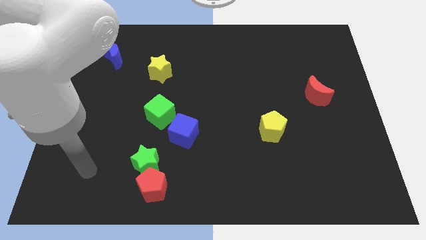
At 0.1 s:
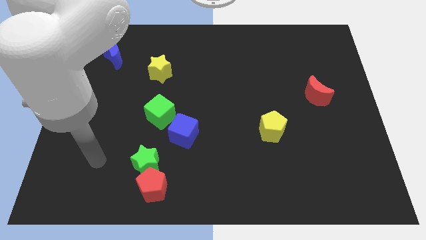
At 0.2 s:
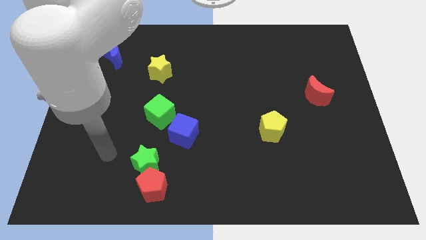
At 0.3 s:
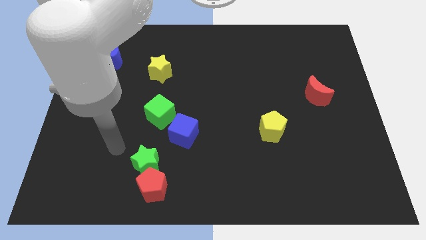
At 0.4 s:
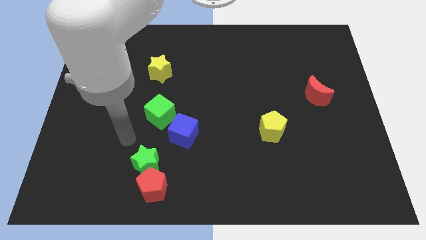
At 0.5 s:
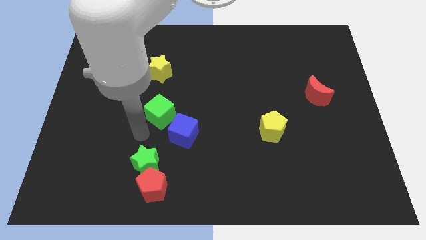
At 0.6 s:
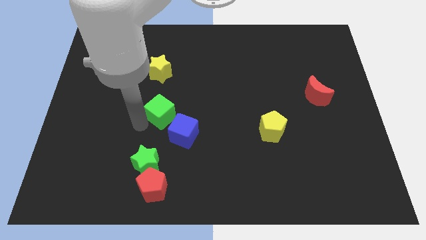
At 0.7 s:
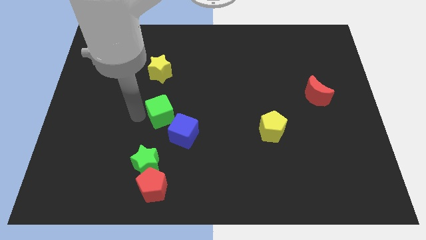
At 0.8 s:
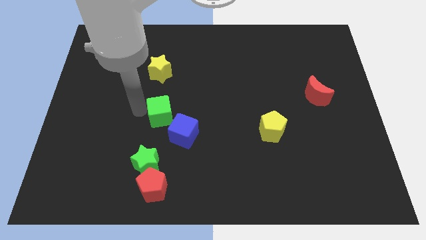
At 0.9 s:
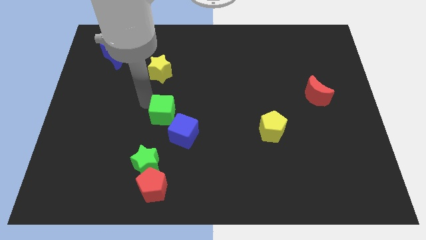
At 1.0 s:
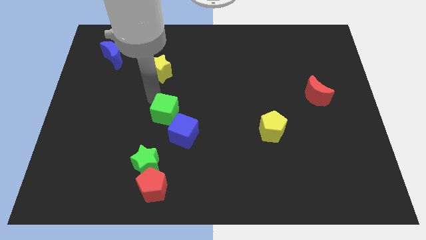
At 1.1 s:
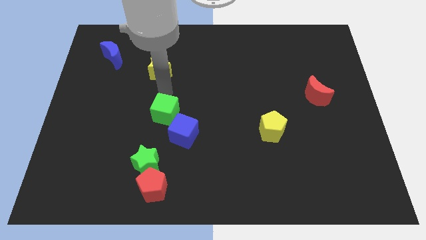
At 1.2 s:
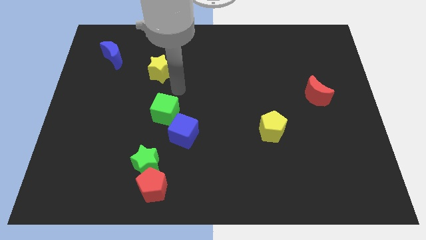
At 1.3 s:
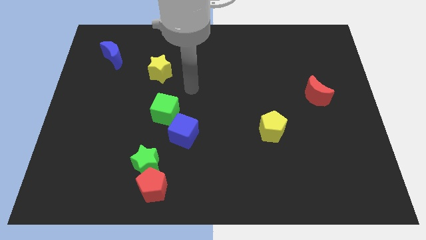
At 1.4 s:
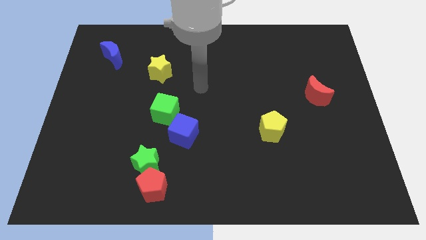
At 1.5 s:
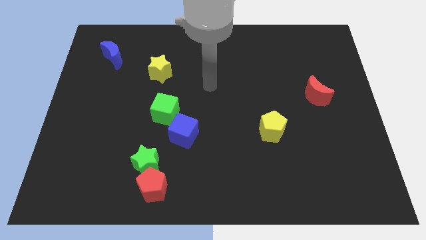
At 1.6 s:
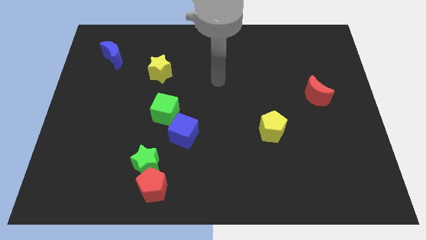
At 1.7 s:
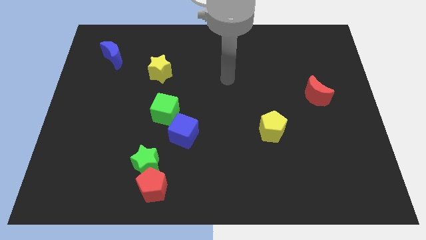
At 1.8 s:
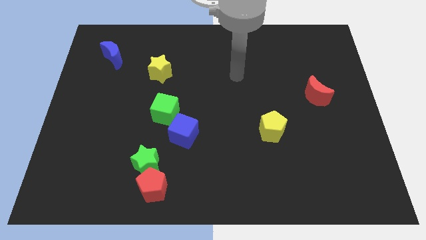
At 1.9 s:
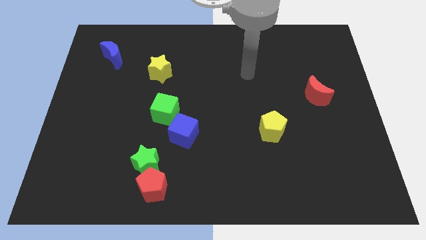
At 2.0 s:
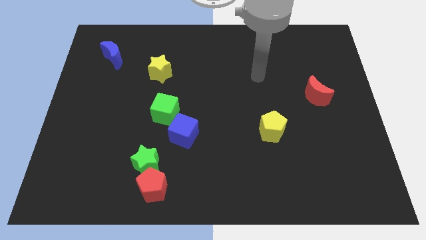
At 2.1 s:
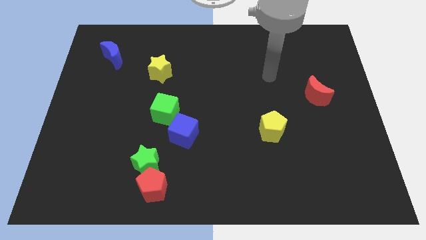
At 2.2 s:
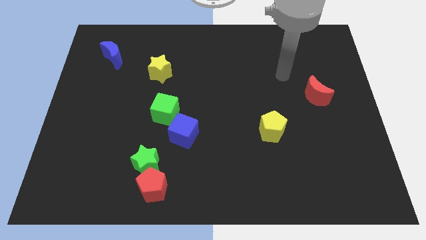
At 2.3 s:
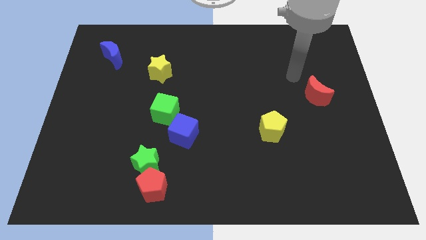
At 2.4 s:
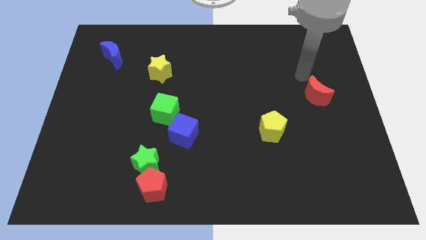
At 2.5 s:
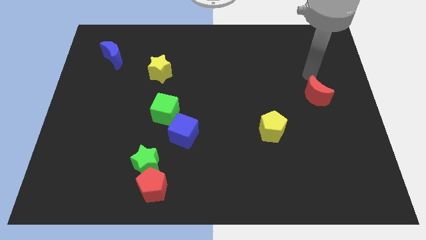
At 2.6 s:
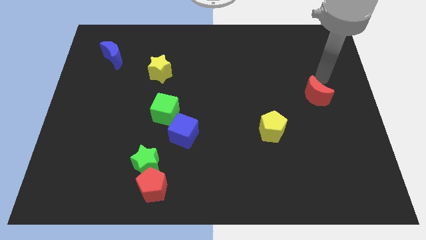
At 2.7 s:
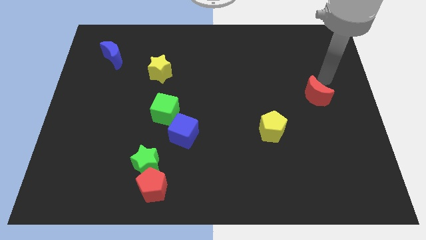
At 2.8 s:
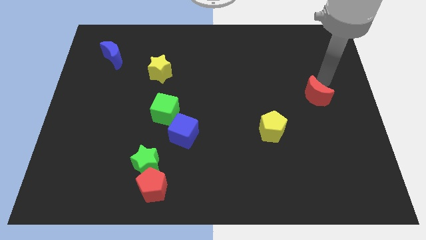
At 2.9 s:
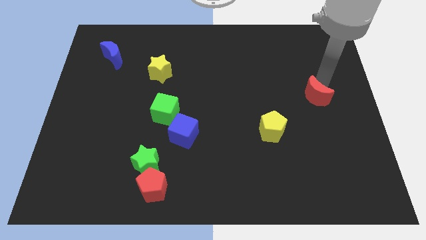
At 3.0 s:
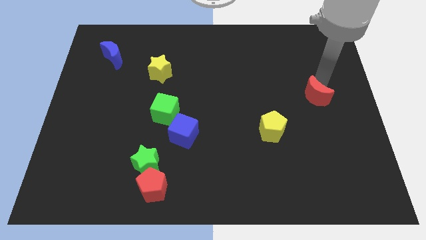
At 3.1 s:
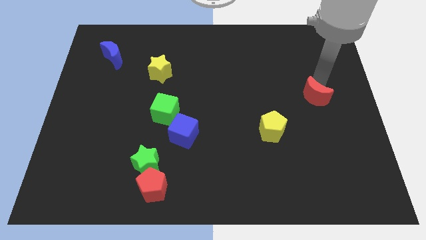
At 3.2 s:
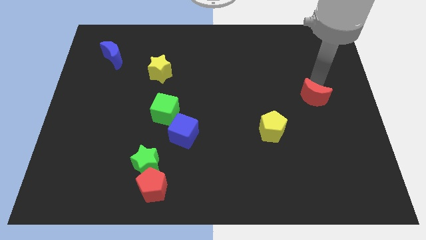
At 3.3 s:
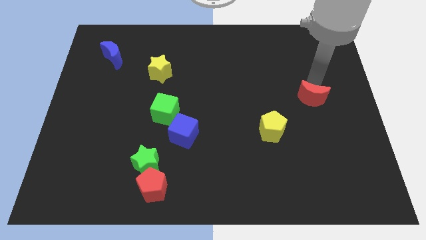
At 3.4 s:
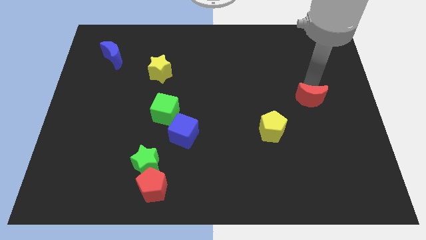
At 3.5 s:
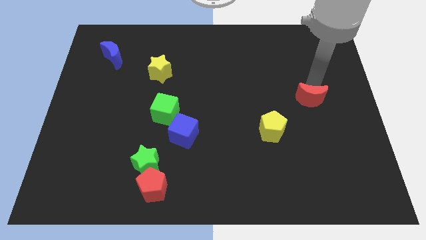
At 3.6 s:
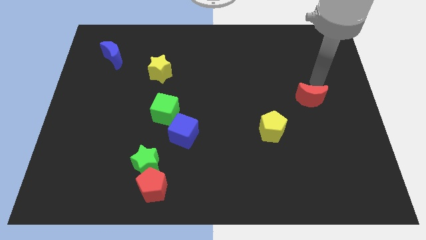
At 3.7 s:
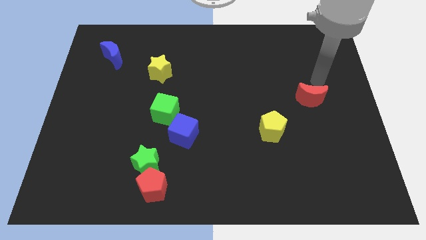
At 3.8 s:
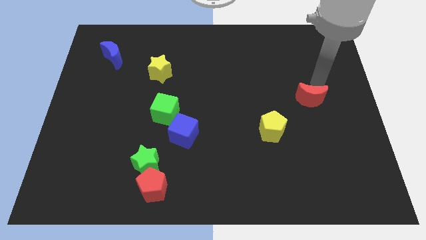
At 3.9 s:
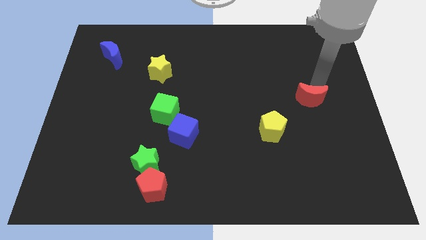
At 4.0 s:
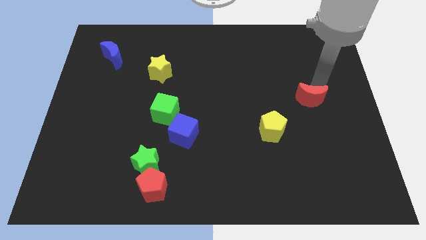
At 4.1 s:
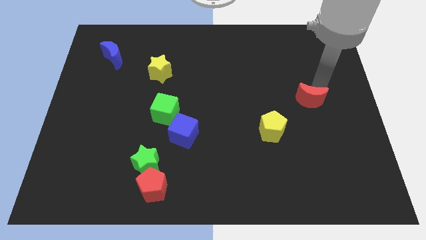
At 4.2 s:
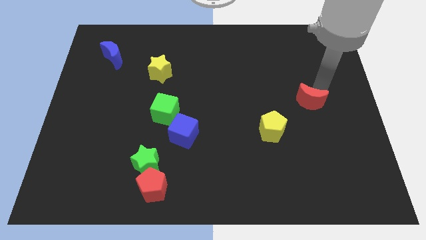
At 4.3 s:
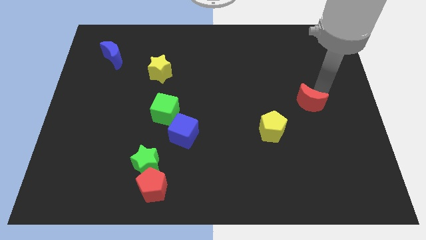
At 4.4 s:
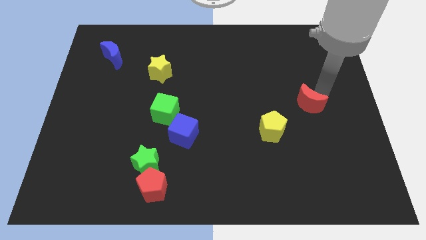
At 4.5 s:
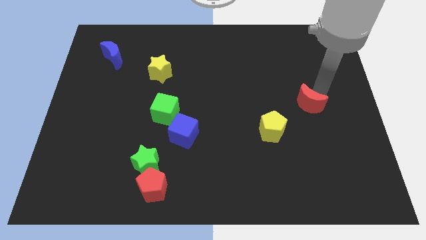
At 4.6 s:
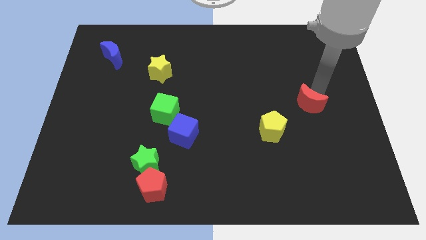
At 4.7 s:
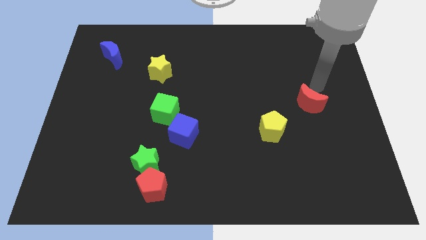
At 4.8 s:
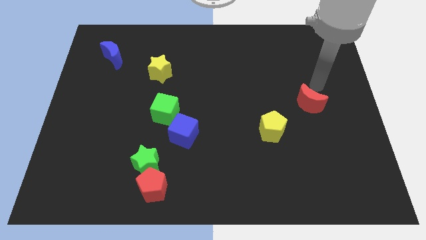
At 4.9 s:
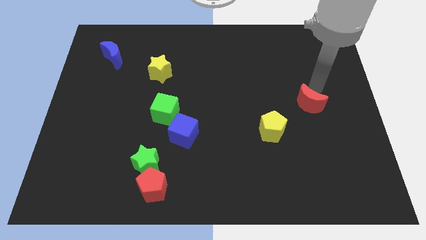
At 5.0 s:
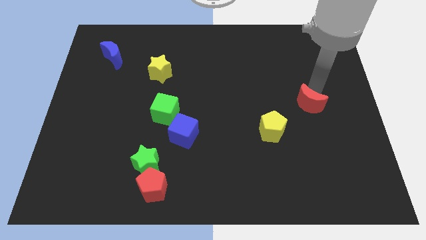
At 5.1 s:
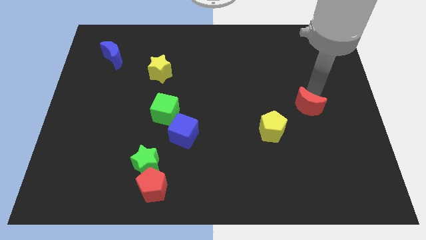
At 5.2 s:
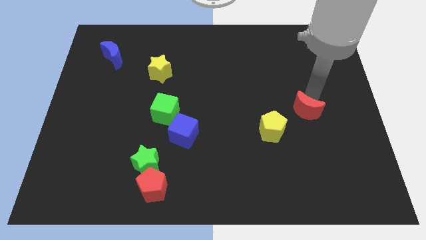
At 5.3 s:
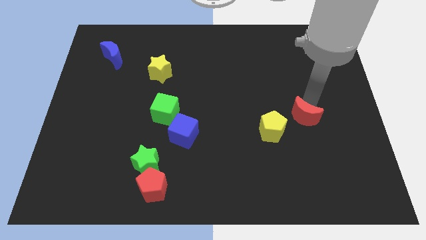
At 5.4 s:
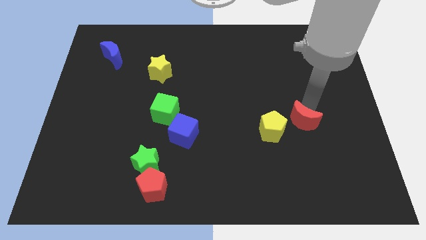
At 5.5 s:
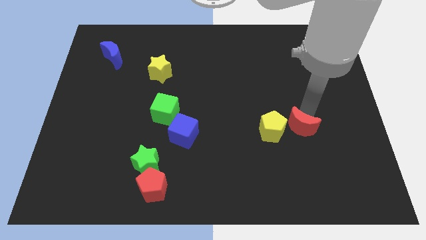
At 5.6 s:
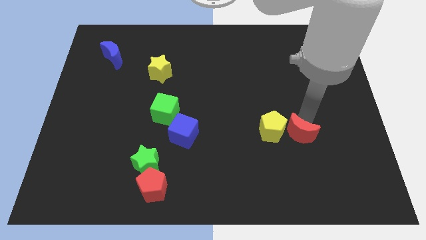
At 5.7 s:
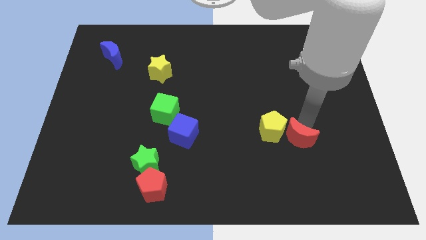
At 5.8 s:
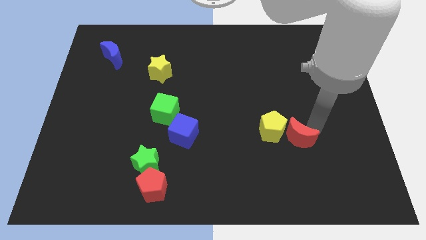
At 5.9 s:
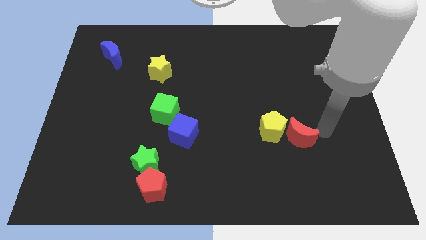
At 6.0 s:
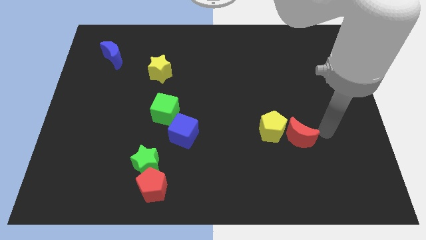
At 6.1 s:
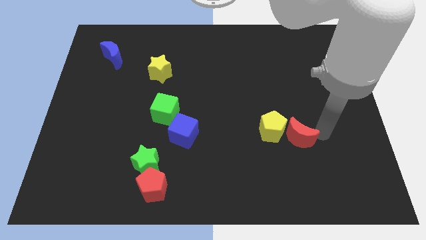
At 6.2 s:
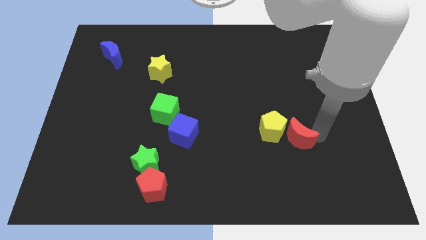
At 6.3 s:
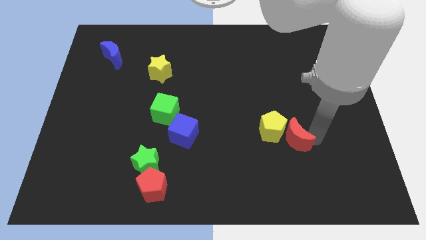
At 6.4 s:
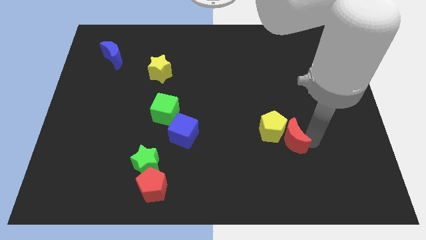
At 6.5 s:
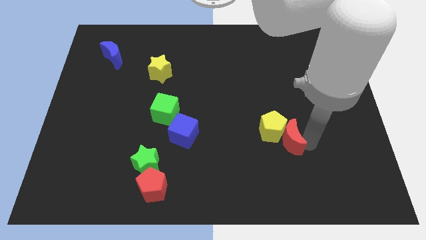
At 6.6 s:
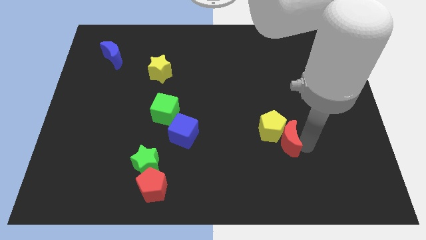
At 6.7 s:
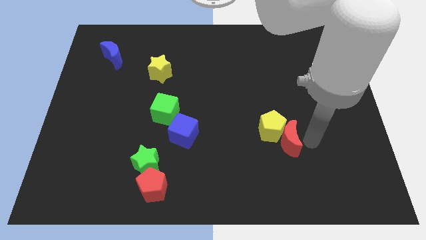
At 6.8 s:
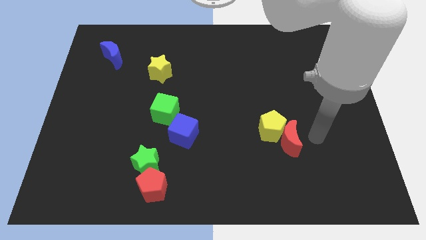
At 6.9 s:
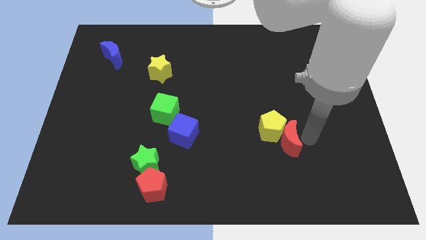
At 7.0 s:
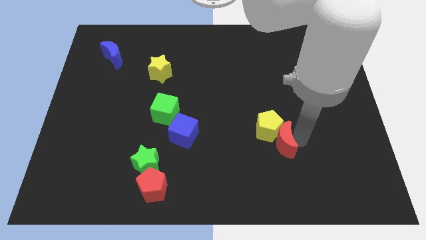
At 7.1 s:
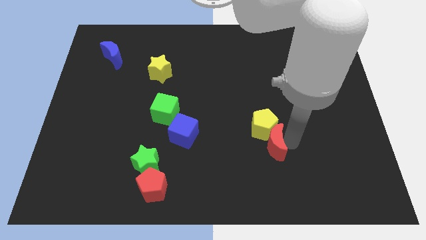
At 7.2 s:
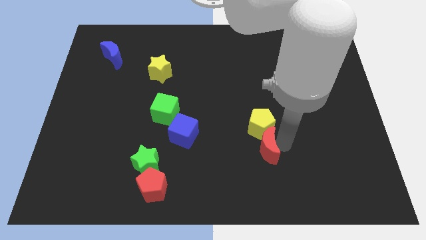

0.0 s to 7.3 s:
put the red moon diagonally down and to the left of the yellow pentagon
